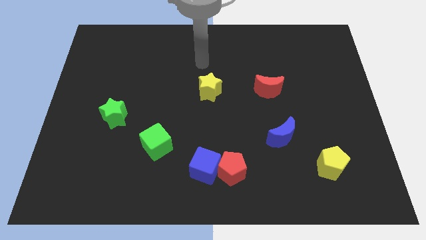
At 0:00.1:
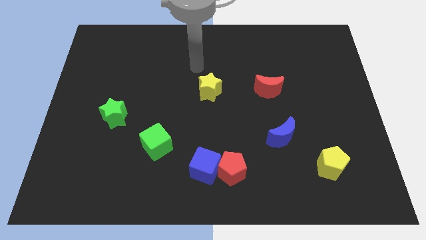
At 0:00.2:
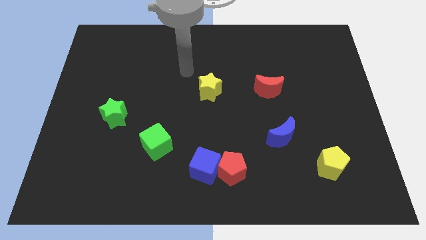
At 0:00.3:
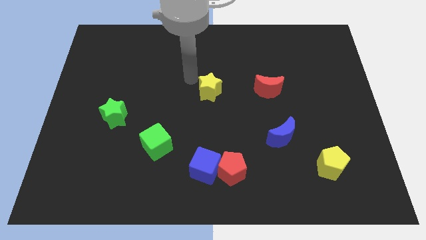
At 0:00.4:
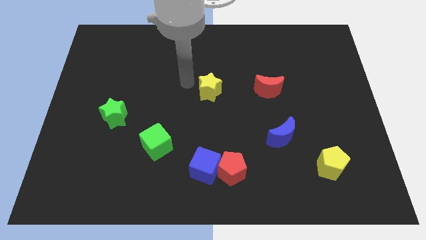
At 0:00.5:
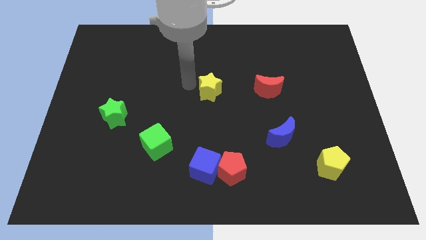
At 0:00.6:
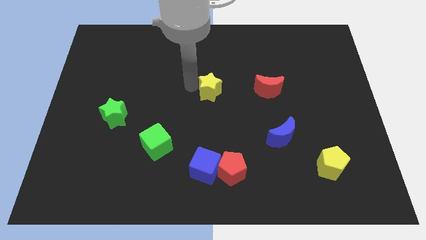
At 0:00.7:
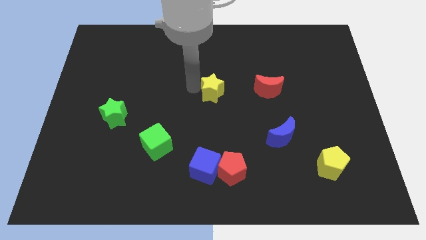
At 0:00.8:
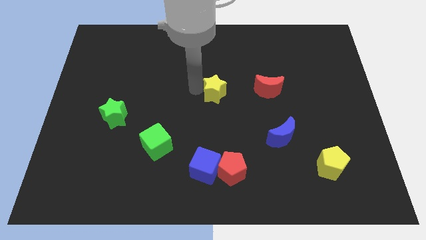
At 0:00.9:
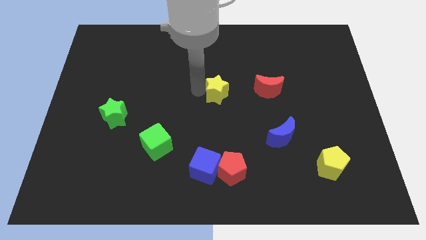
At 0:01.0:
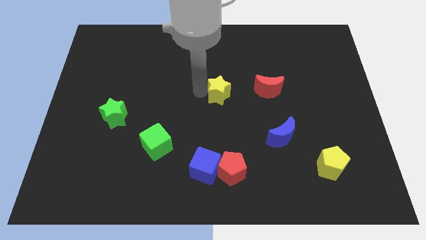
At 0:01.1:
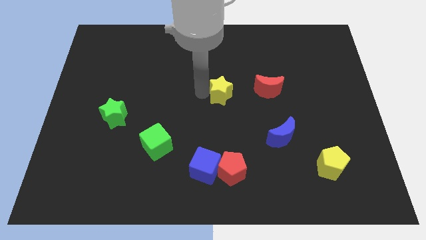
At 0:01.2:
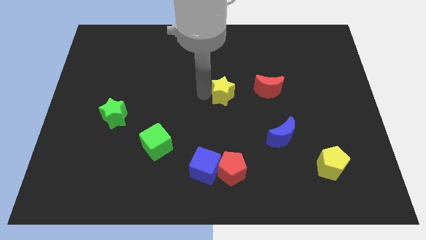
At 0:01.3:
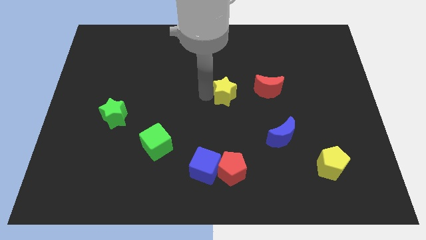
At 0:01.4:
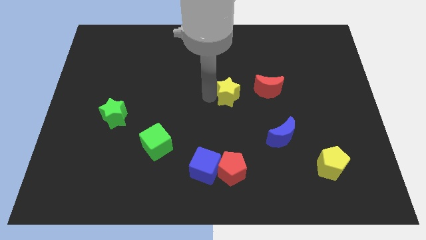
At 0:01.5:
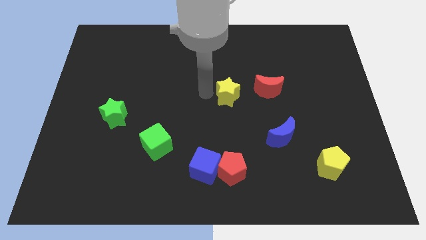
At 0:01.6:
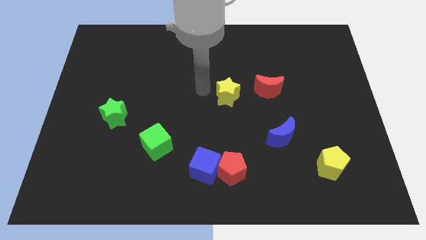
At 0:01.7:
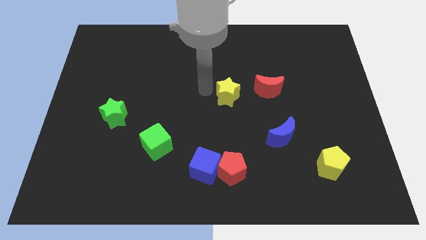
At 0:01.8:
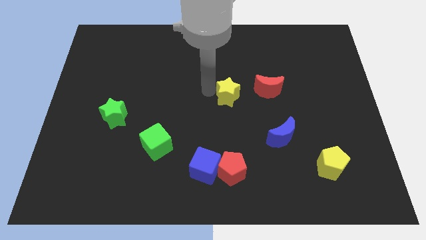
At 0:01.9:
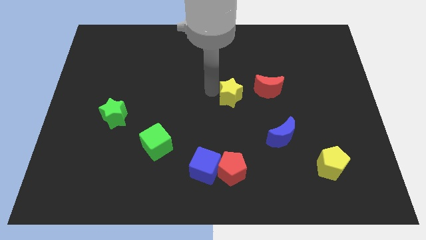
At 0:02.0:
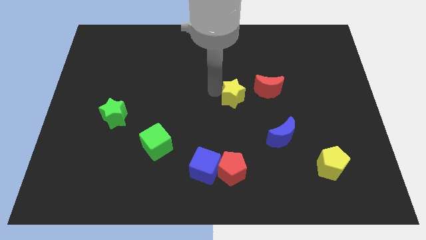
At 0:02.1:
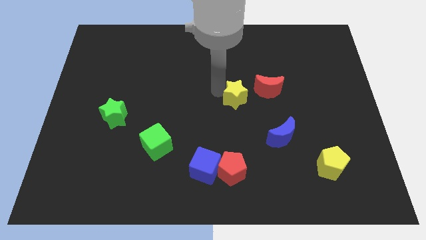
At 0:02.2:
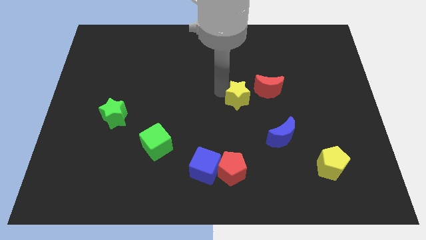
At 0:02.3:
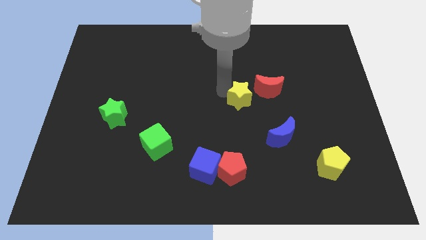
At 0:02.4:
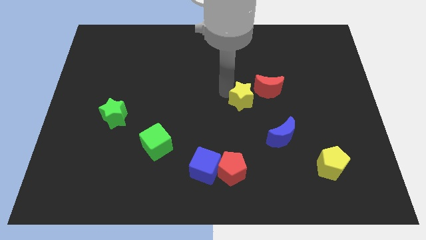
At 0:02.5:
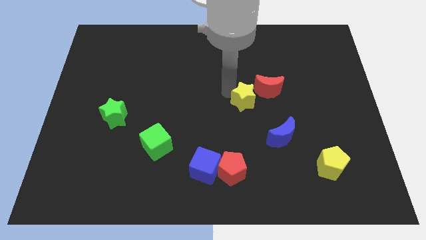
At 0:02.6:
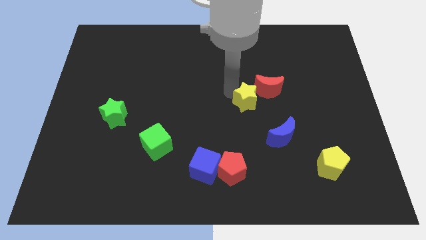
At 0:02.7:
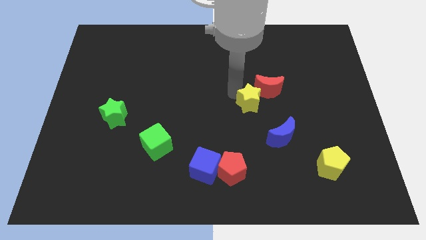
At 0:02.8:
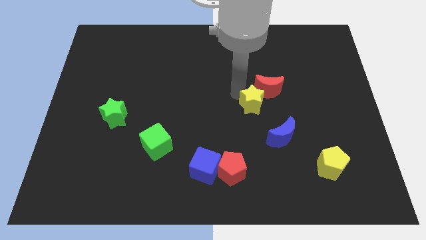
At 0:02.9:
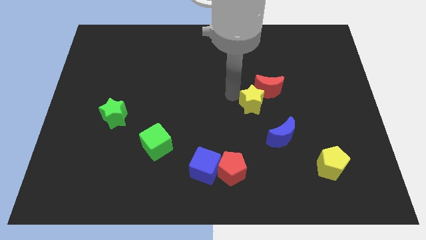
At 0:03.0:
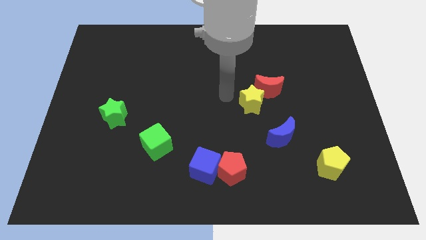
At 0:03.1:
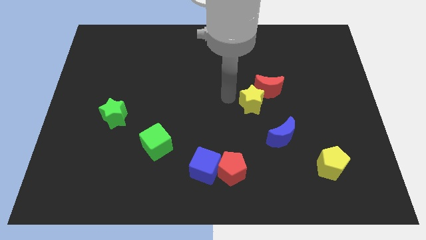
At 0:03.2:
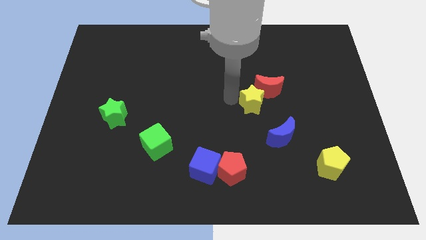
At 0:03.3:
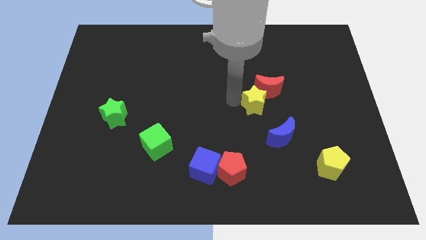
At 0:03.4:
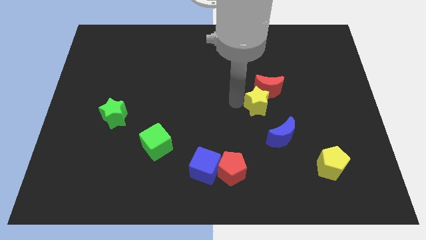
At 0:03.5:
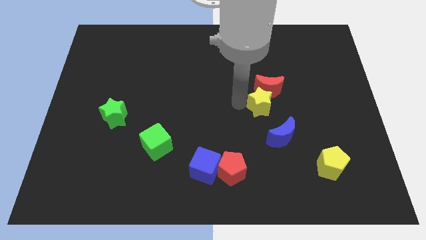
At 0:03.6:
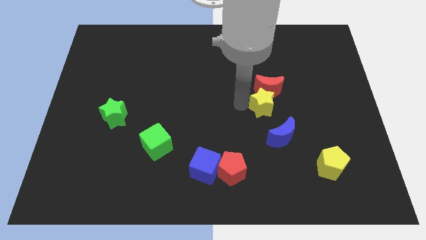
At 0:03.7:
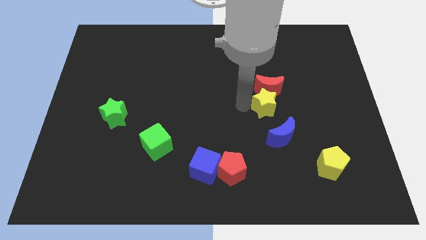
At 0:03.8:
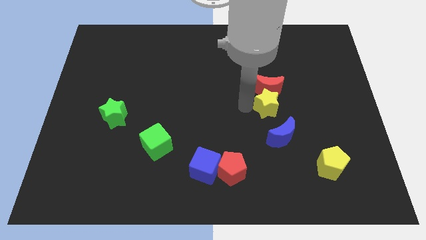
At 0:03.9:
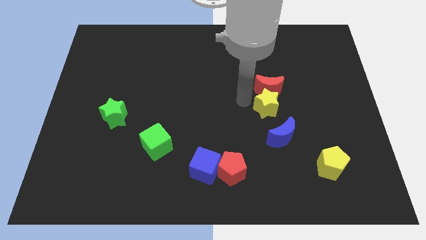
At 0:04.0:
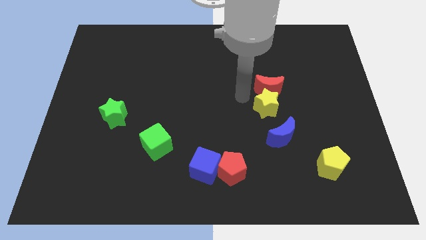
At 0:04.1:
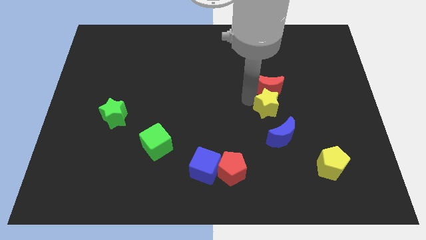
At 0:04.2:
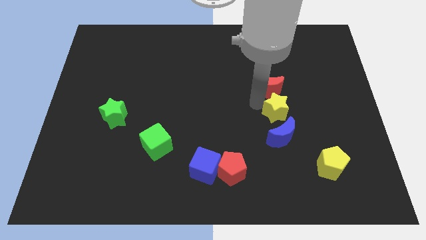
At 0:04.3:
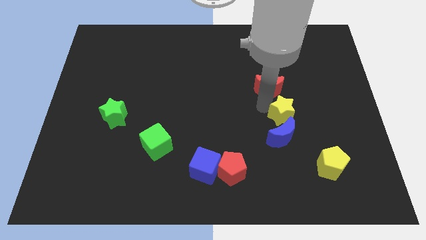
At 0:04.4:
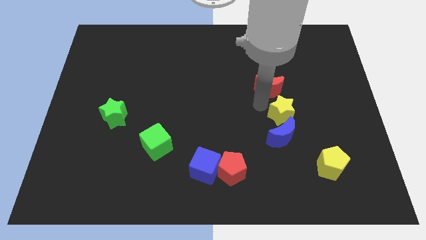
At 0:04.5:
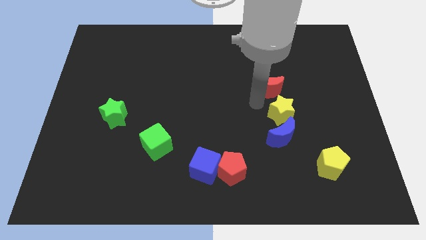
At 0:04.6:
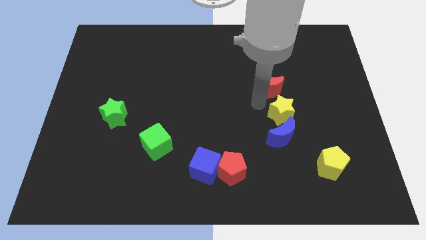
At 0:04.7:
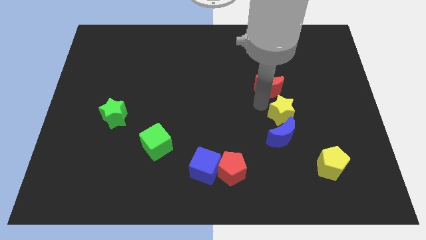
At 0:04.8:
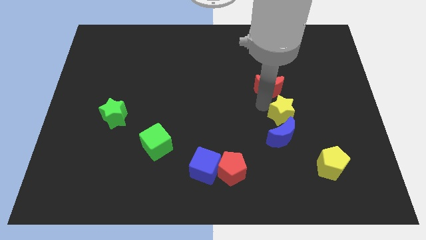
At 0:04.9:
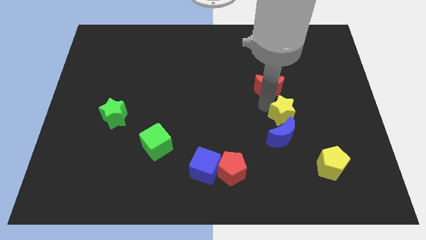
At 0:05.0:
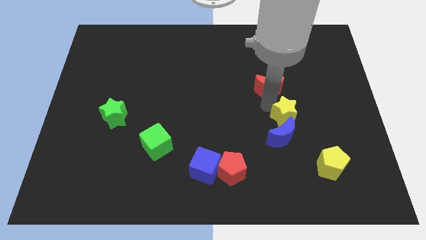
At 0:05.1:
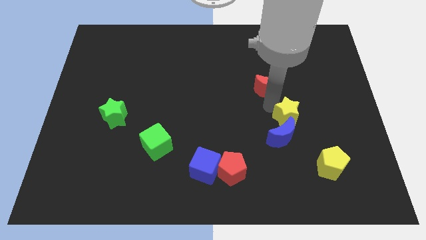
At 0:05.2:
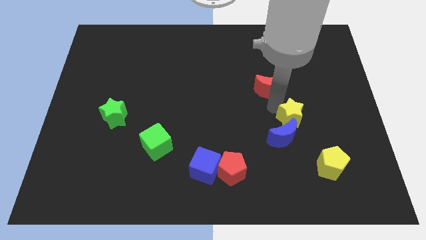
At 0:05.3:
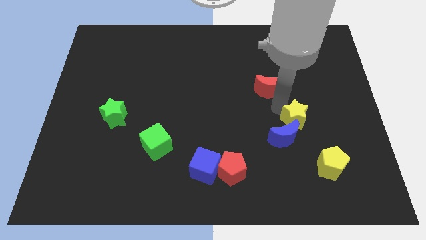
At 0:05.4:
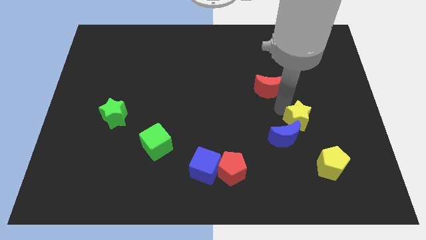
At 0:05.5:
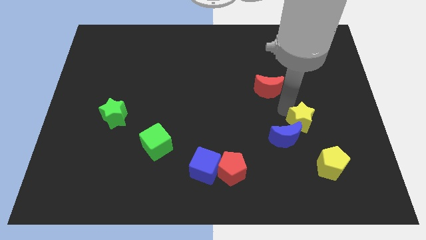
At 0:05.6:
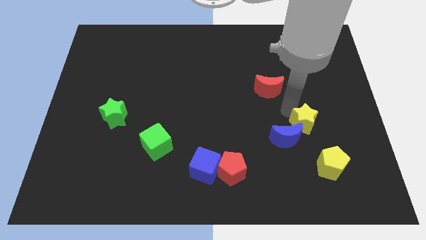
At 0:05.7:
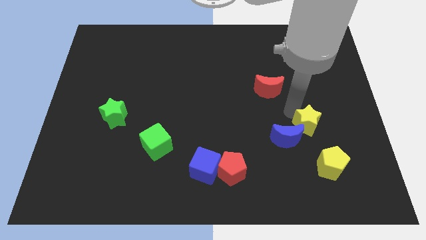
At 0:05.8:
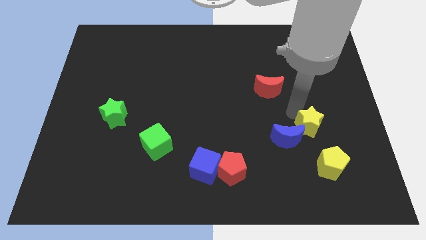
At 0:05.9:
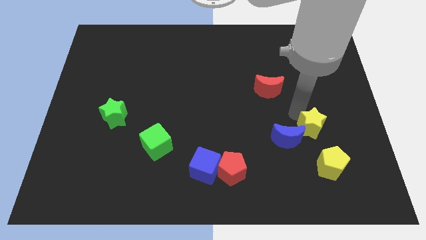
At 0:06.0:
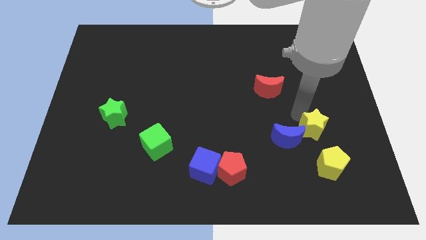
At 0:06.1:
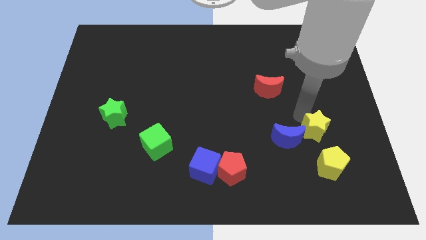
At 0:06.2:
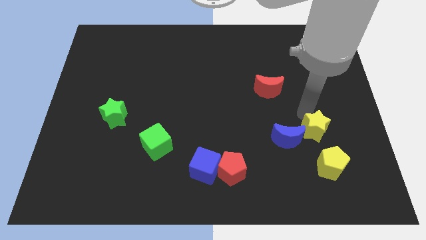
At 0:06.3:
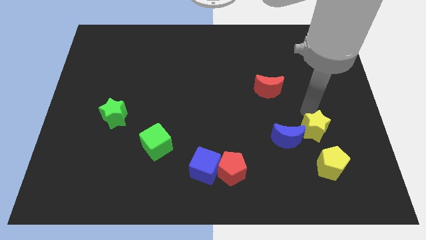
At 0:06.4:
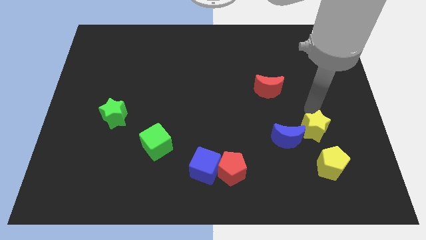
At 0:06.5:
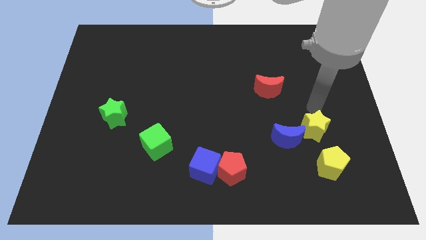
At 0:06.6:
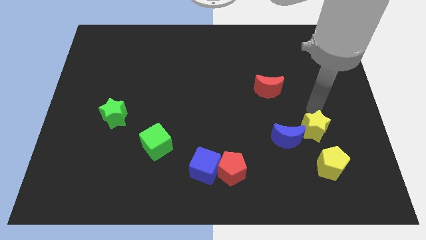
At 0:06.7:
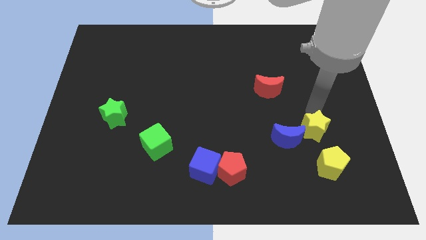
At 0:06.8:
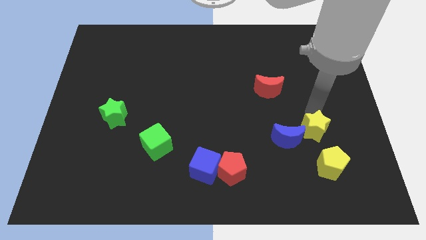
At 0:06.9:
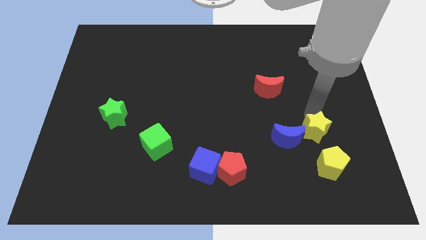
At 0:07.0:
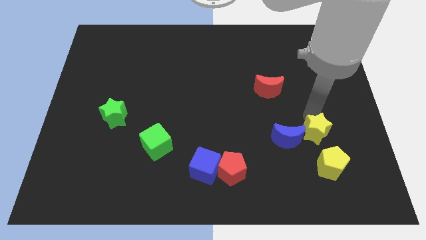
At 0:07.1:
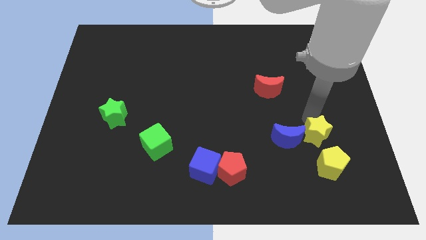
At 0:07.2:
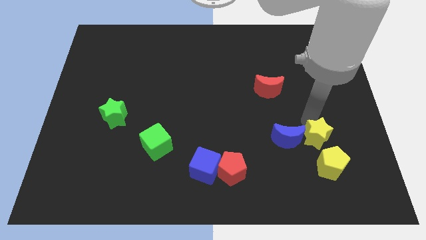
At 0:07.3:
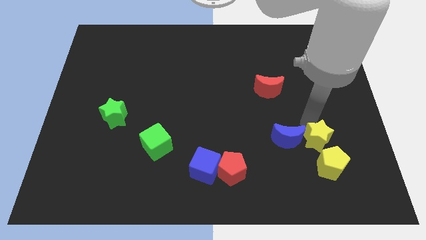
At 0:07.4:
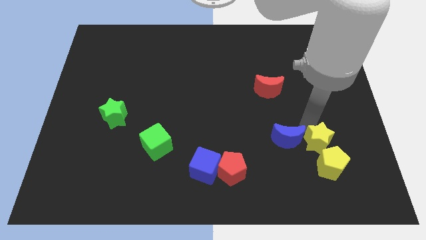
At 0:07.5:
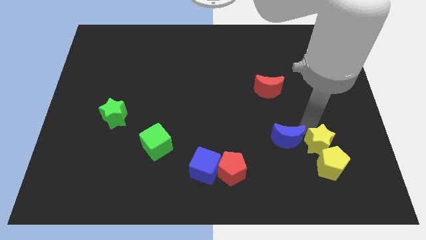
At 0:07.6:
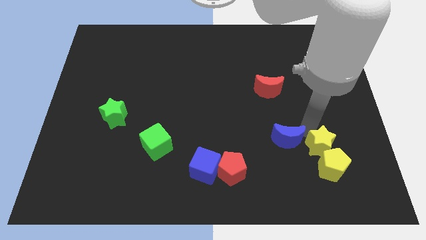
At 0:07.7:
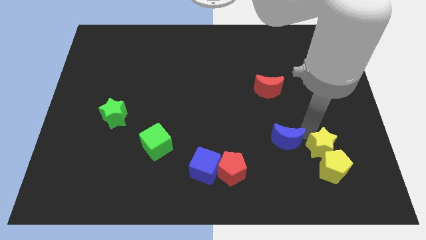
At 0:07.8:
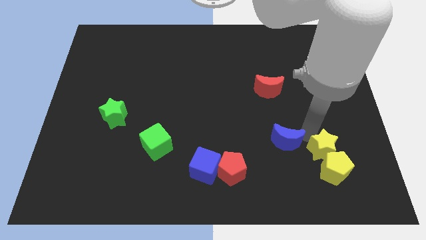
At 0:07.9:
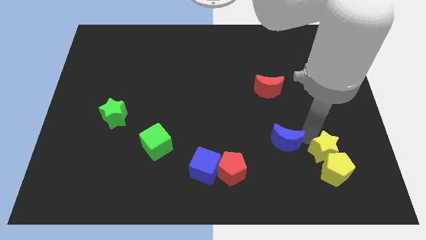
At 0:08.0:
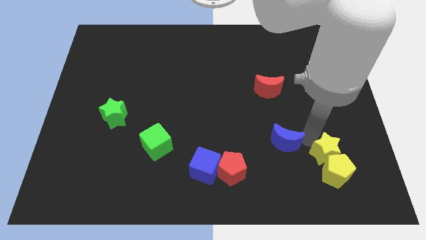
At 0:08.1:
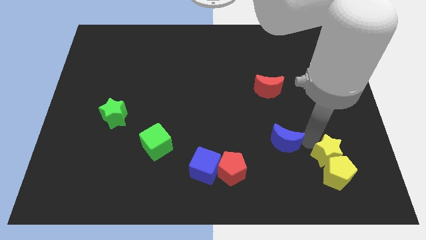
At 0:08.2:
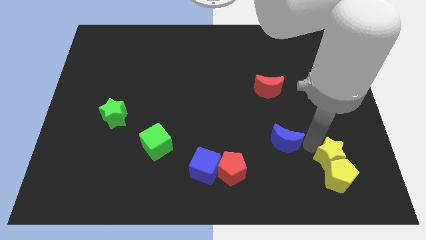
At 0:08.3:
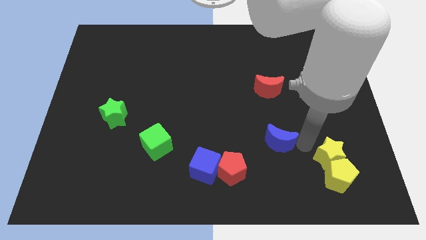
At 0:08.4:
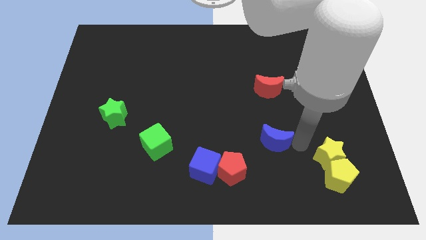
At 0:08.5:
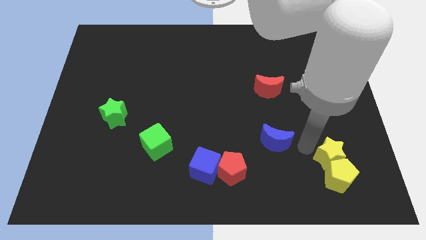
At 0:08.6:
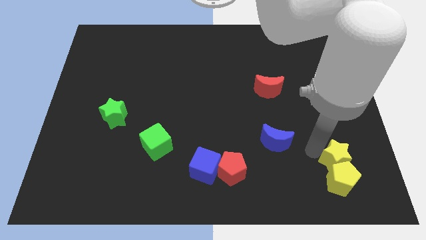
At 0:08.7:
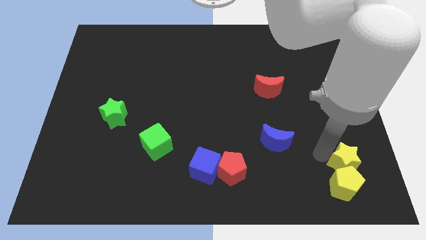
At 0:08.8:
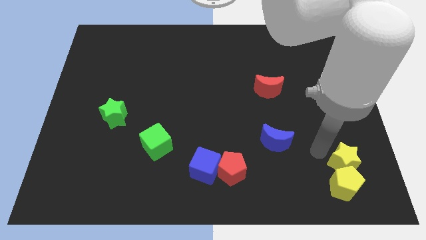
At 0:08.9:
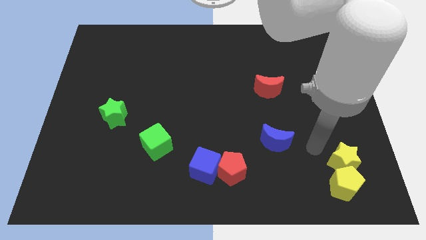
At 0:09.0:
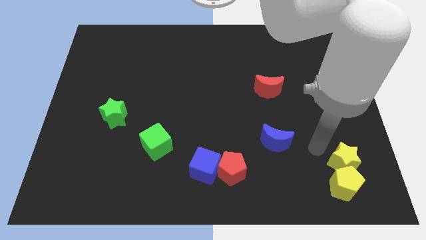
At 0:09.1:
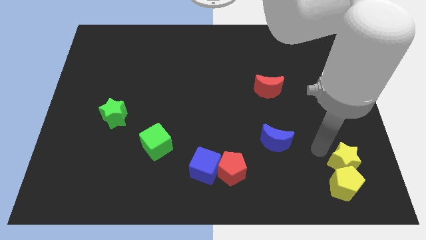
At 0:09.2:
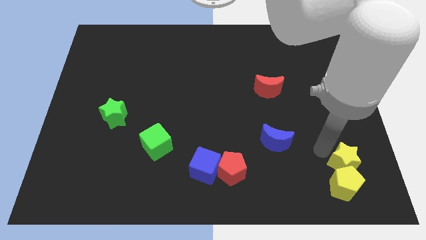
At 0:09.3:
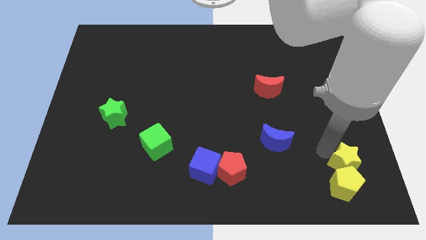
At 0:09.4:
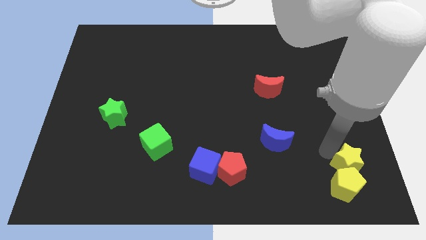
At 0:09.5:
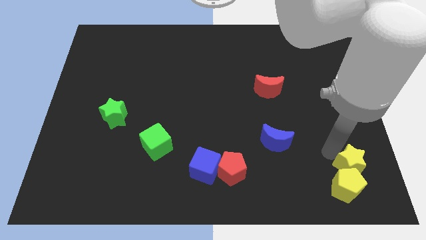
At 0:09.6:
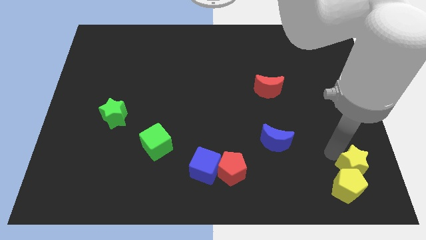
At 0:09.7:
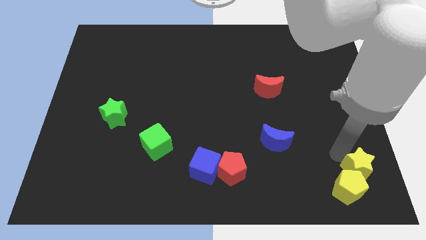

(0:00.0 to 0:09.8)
move the yellow star to the bottom right
